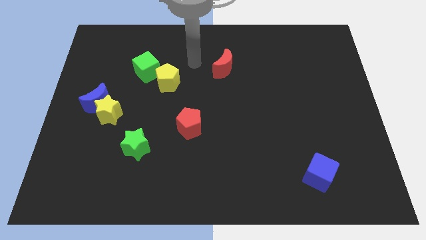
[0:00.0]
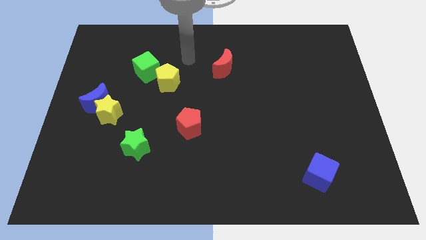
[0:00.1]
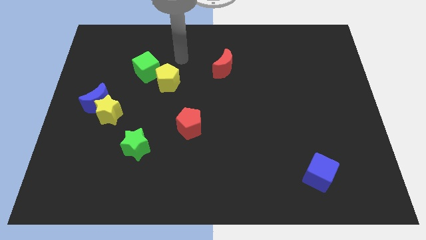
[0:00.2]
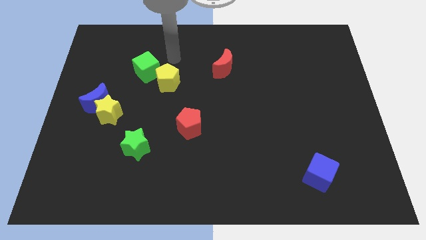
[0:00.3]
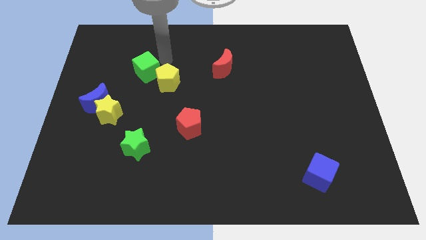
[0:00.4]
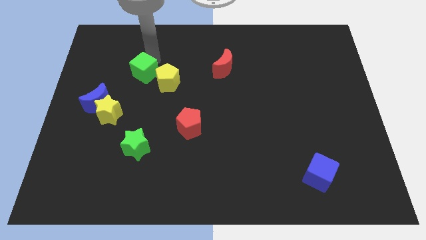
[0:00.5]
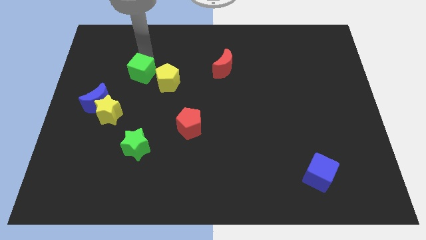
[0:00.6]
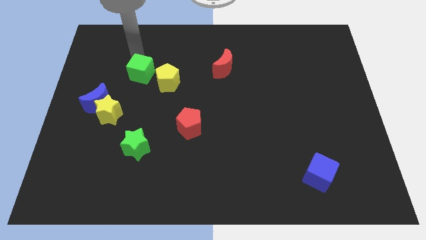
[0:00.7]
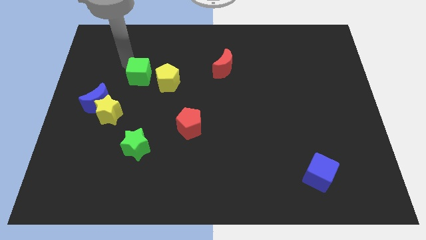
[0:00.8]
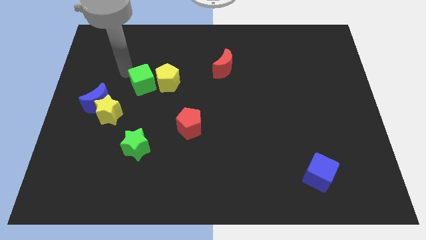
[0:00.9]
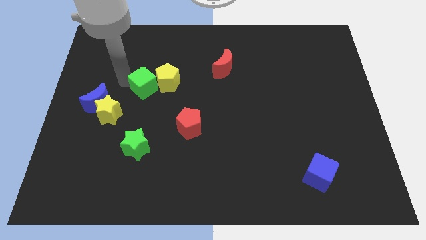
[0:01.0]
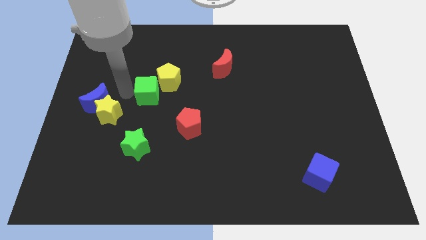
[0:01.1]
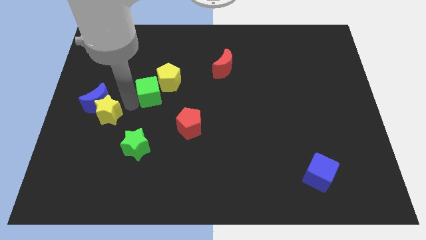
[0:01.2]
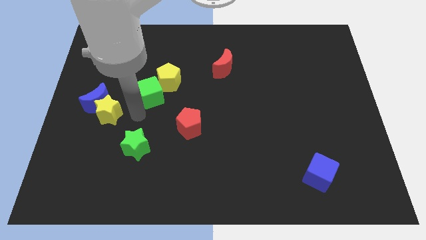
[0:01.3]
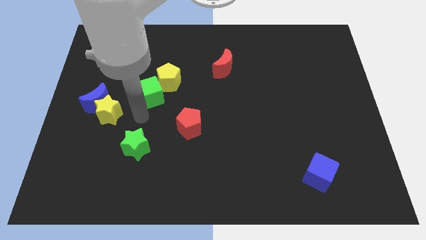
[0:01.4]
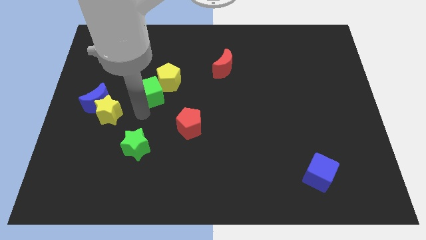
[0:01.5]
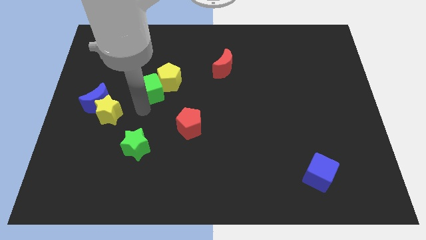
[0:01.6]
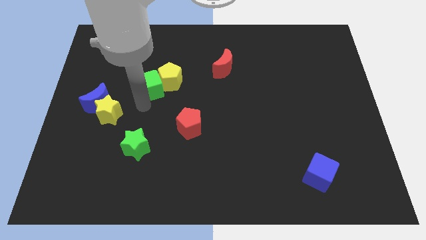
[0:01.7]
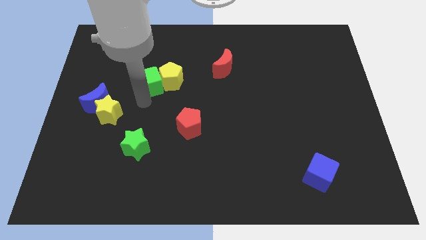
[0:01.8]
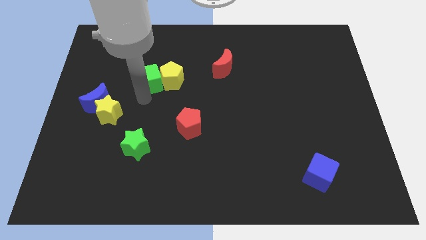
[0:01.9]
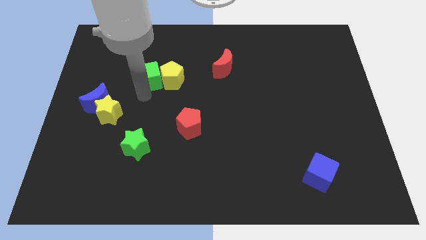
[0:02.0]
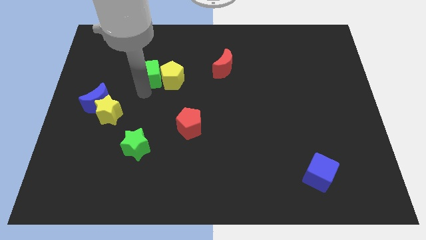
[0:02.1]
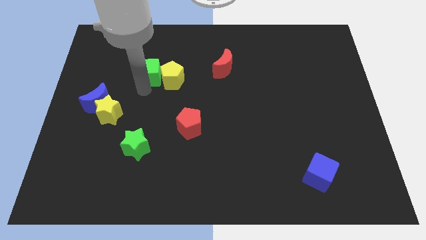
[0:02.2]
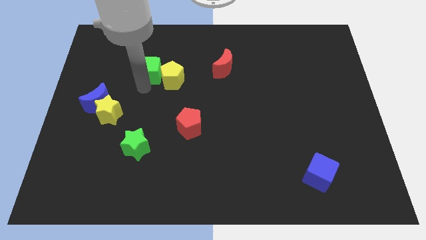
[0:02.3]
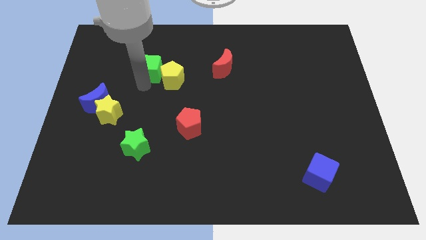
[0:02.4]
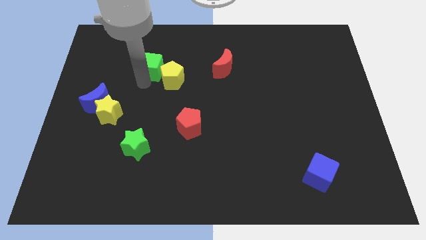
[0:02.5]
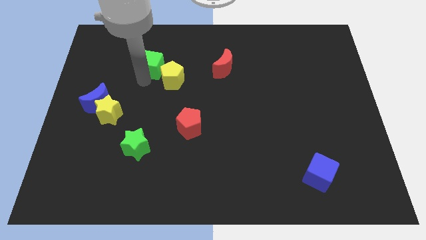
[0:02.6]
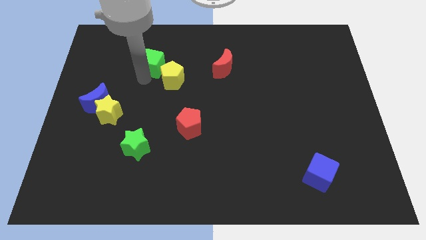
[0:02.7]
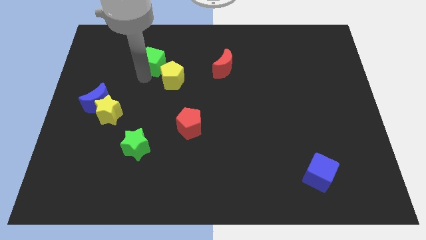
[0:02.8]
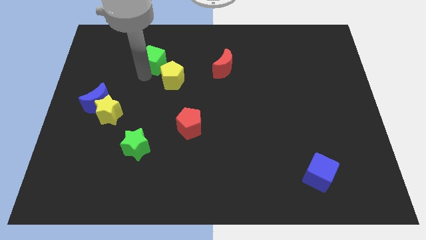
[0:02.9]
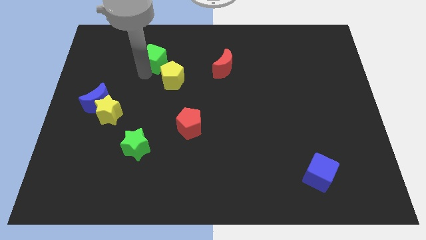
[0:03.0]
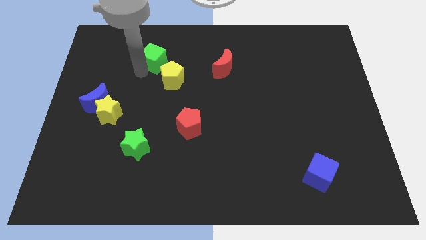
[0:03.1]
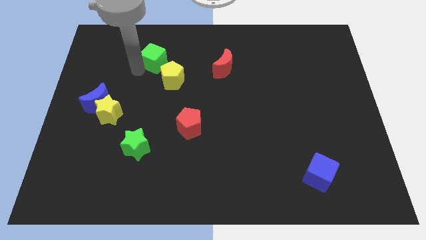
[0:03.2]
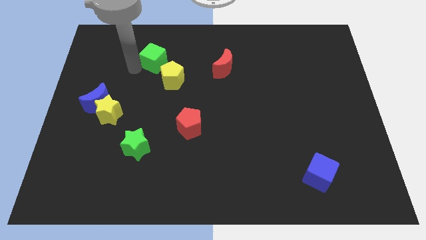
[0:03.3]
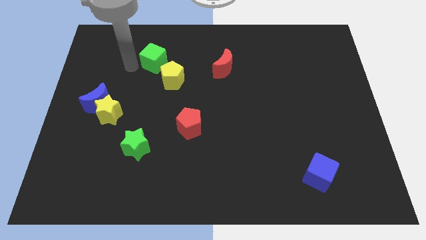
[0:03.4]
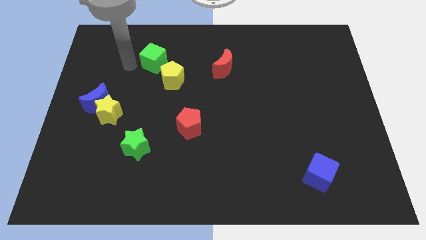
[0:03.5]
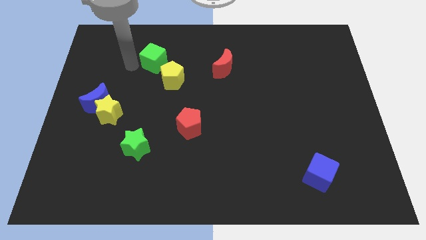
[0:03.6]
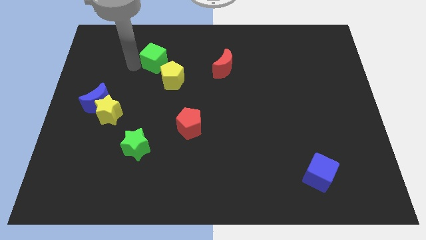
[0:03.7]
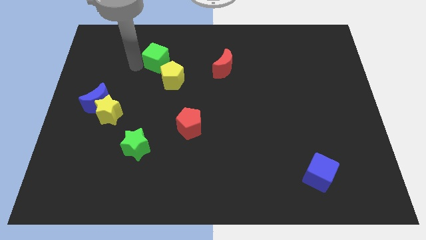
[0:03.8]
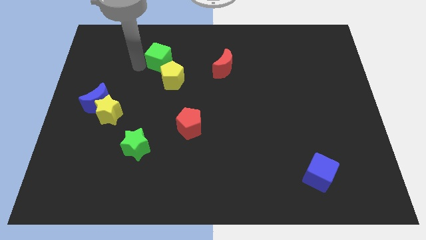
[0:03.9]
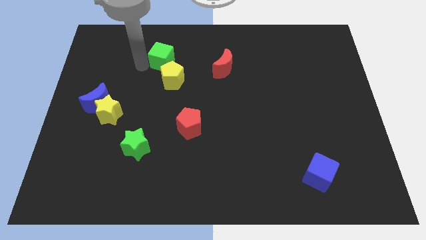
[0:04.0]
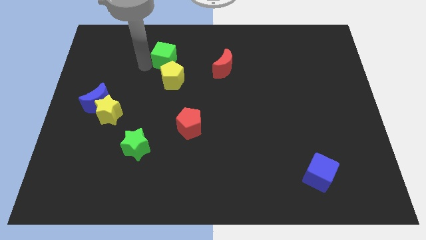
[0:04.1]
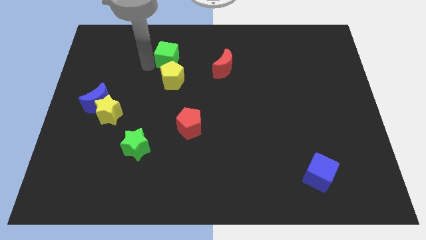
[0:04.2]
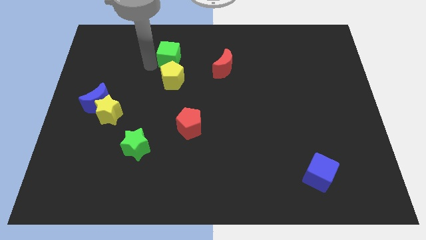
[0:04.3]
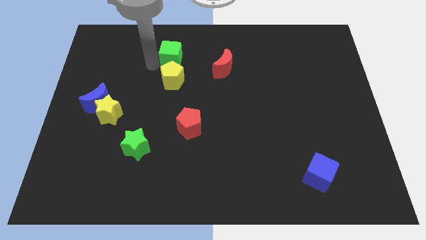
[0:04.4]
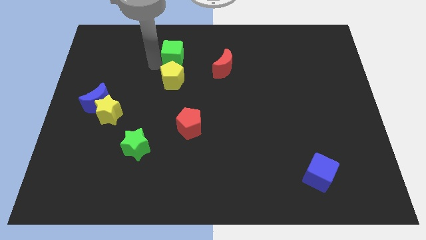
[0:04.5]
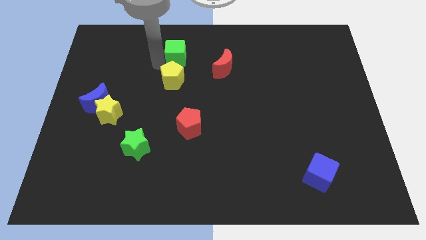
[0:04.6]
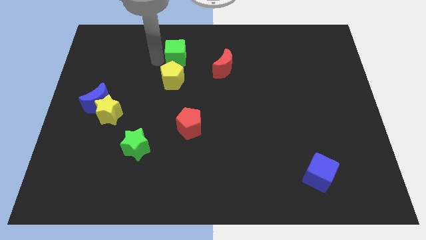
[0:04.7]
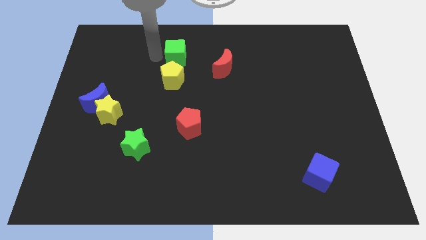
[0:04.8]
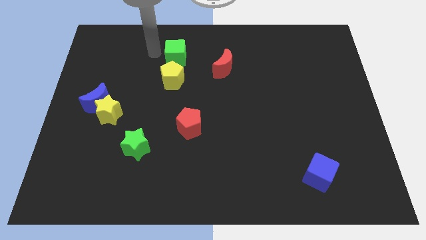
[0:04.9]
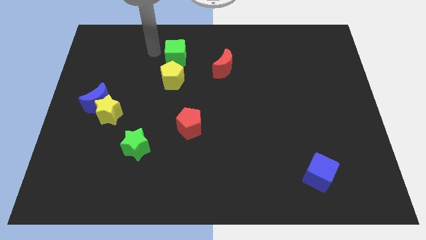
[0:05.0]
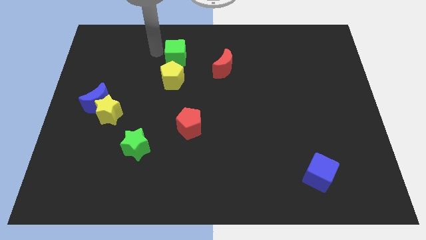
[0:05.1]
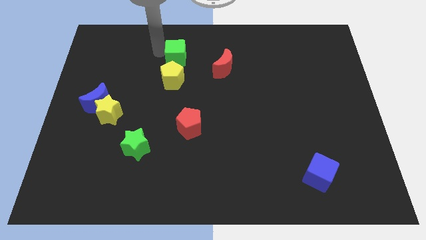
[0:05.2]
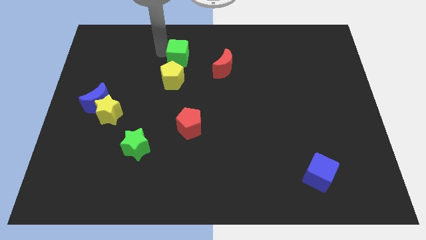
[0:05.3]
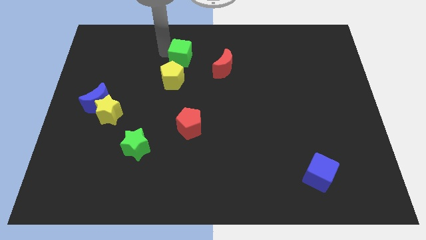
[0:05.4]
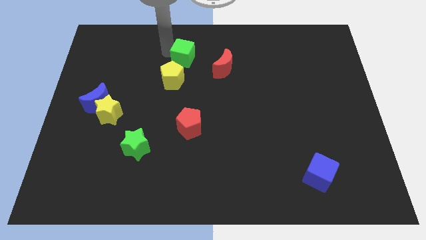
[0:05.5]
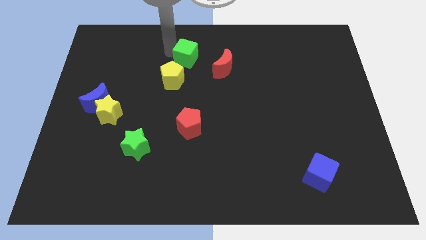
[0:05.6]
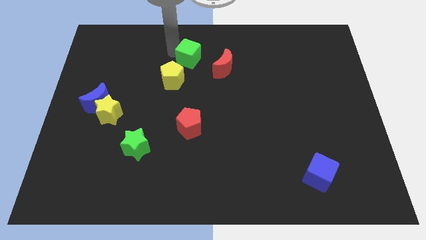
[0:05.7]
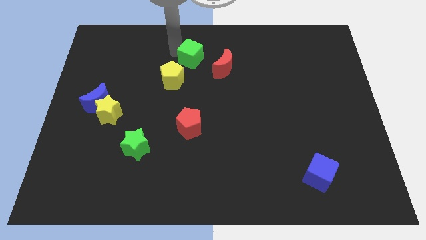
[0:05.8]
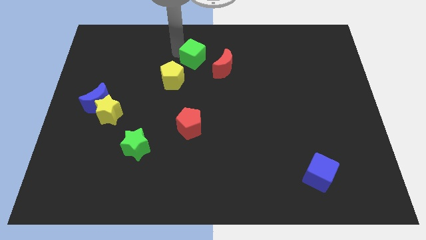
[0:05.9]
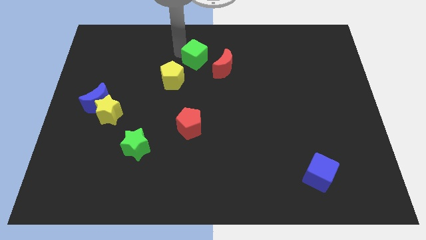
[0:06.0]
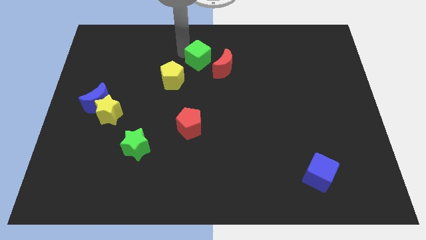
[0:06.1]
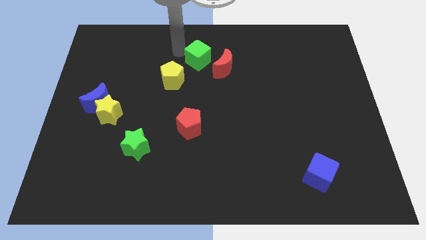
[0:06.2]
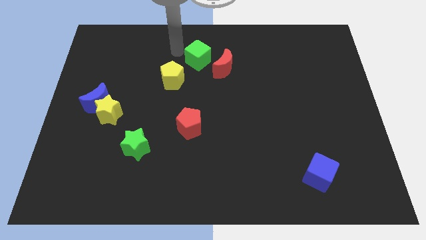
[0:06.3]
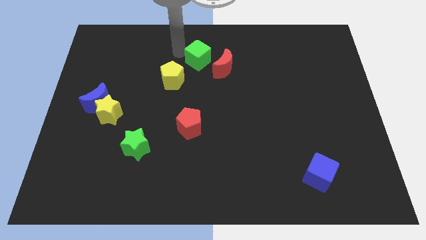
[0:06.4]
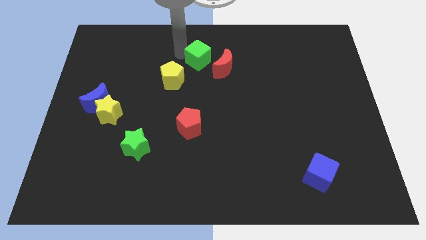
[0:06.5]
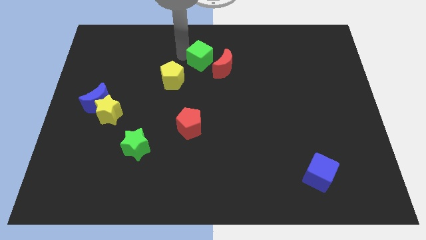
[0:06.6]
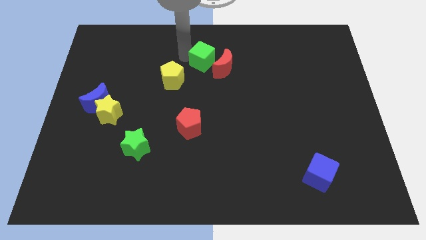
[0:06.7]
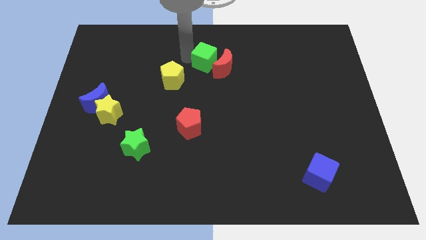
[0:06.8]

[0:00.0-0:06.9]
slide the green cube towards the red moon

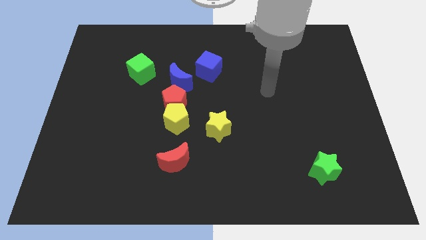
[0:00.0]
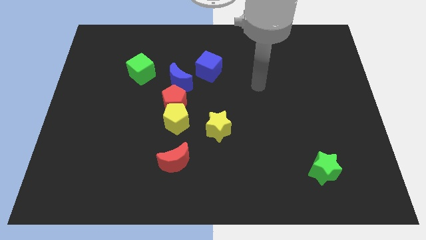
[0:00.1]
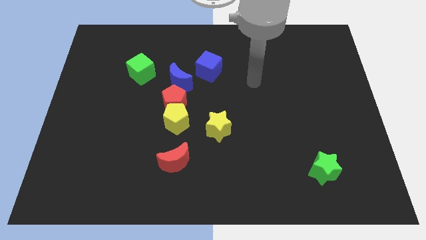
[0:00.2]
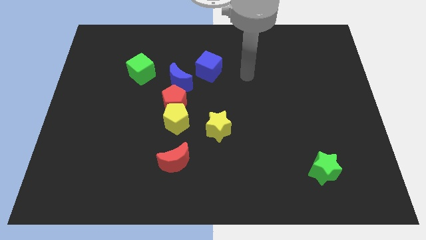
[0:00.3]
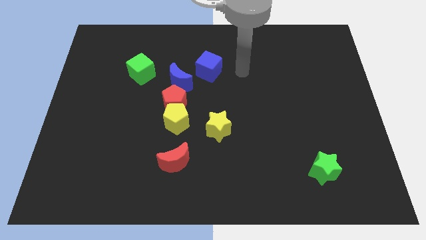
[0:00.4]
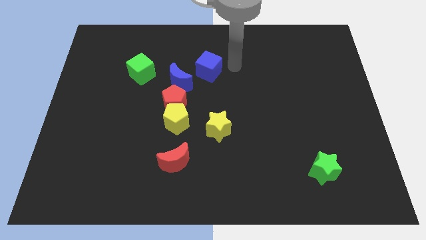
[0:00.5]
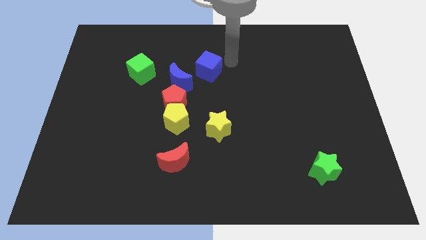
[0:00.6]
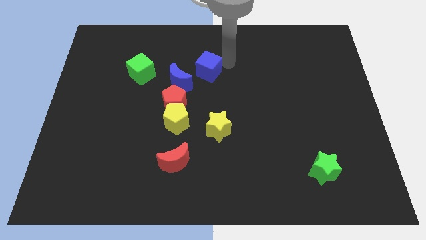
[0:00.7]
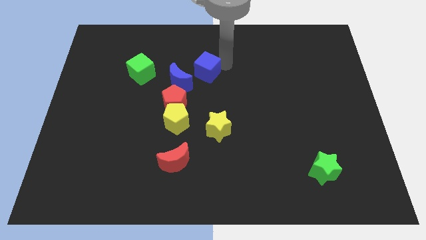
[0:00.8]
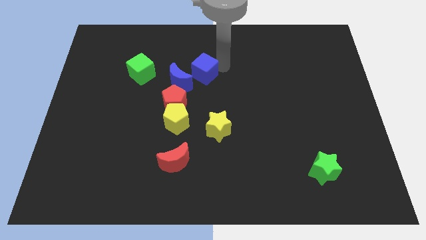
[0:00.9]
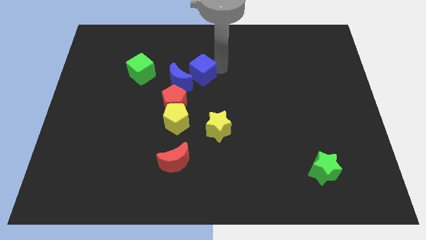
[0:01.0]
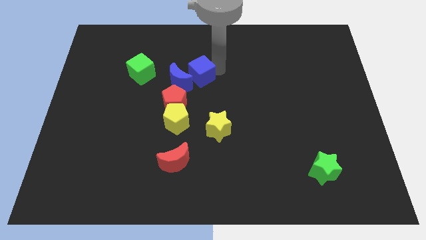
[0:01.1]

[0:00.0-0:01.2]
move the blue cube close to the blue moon
